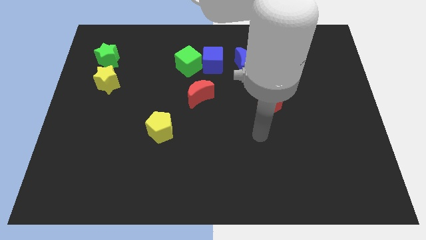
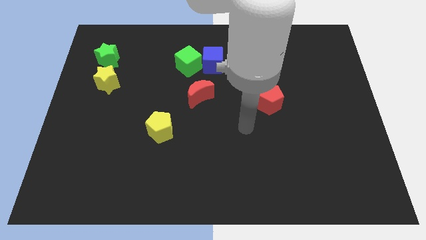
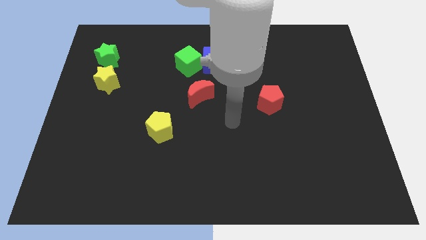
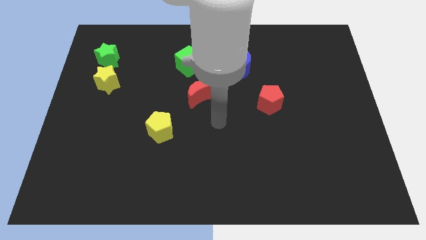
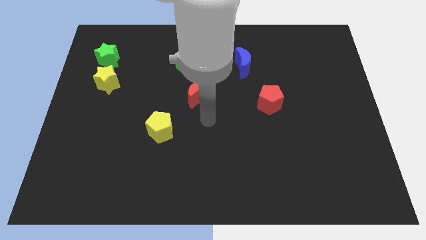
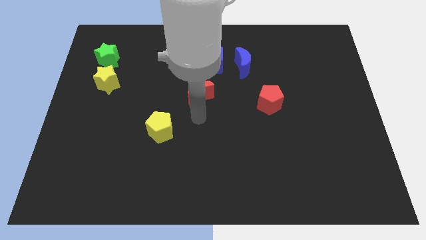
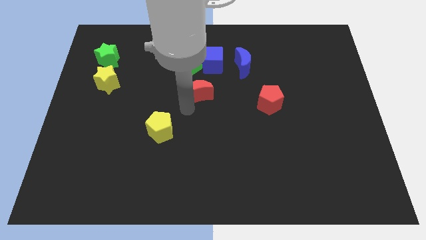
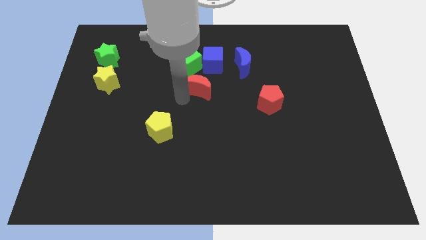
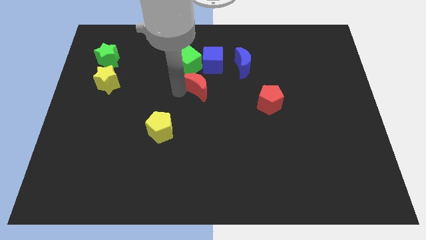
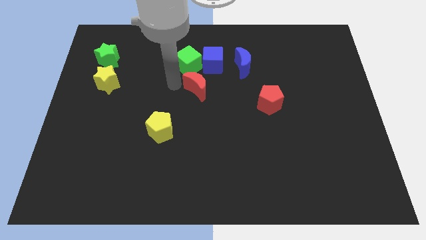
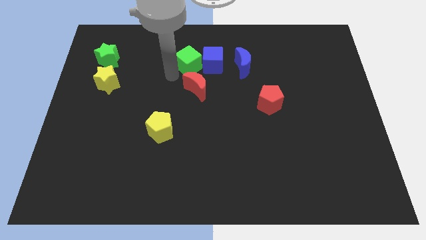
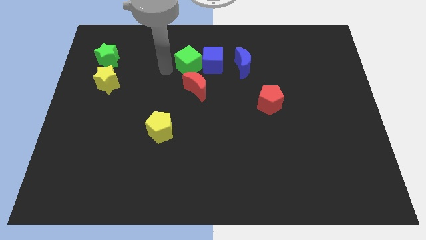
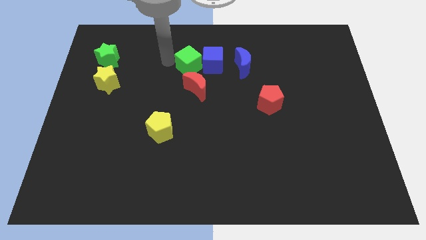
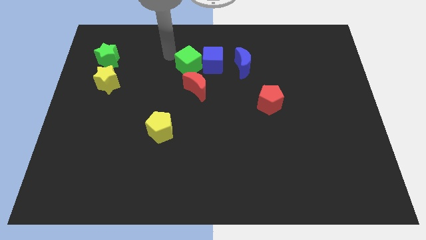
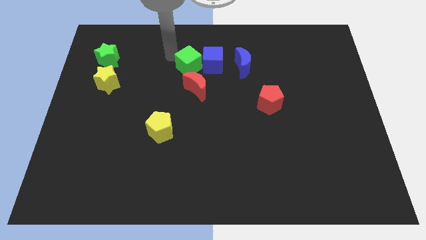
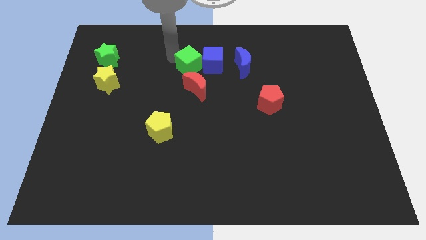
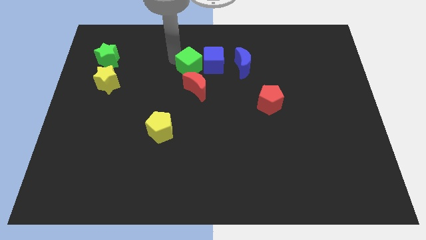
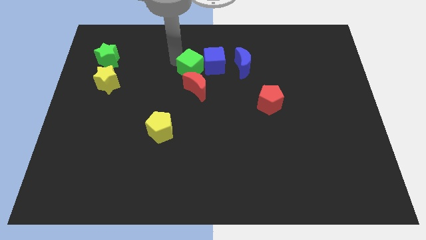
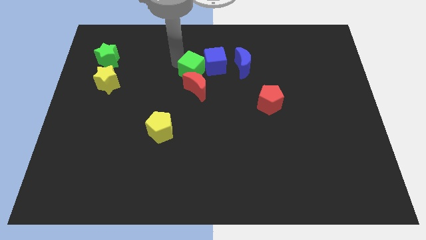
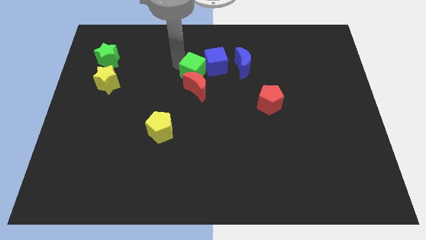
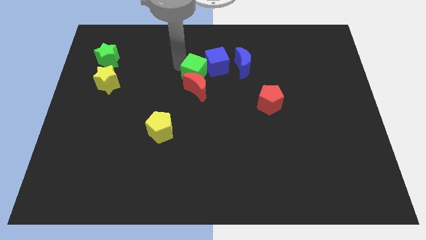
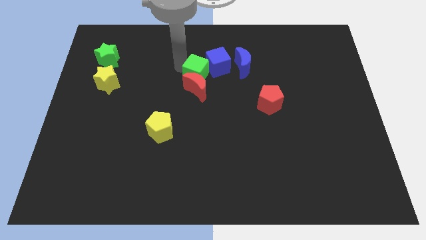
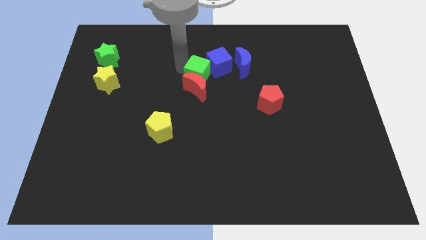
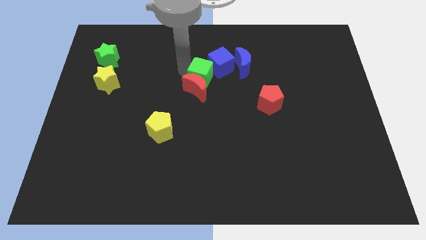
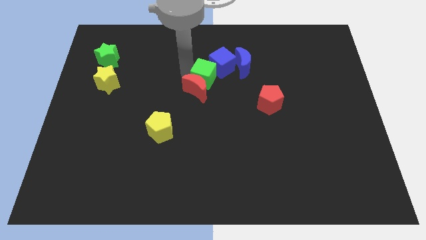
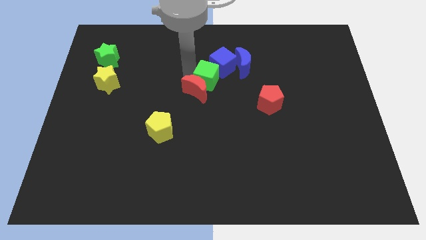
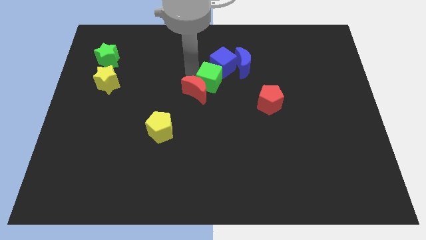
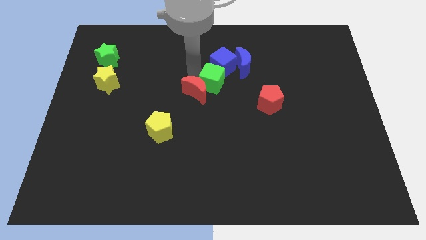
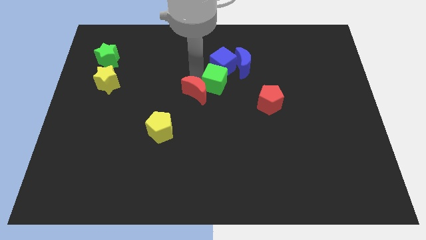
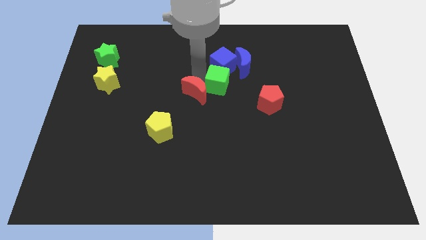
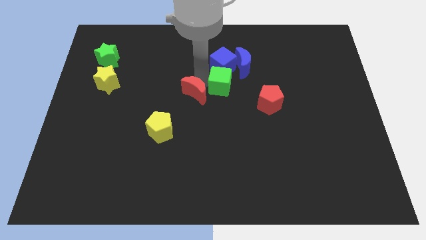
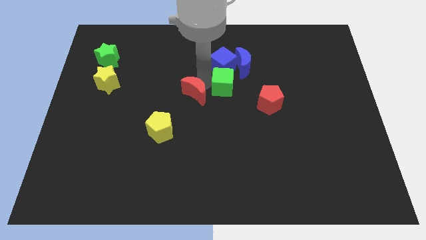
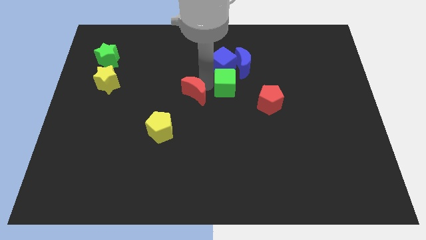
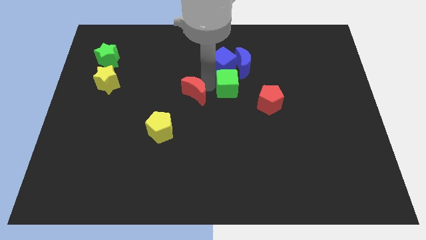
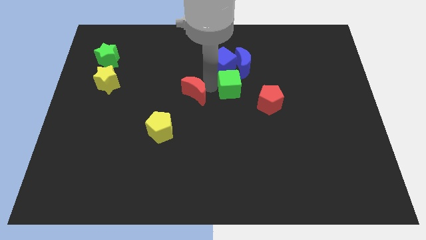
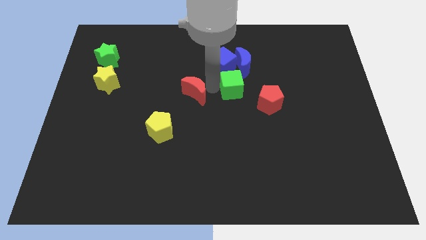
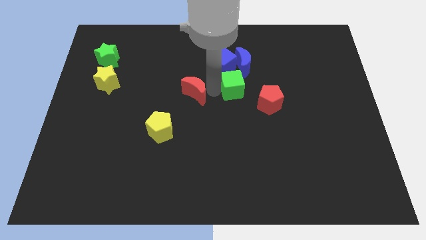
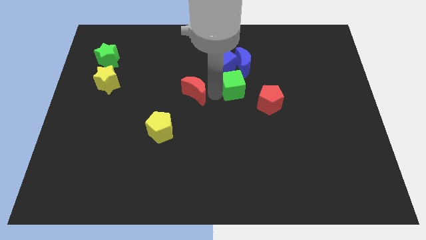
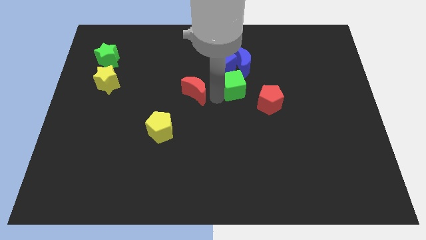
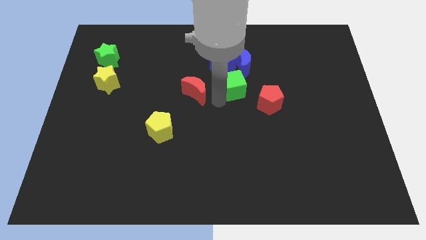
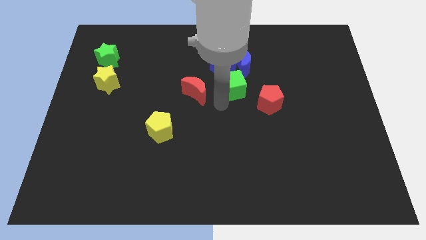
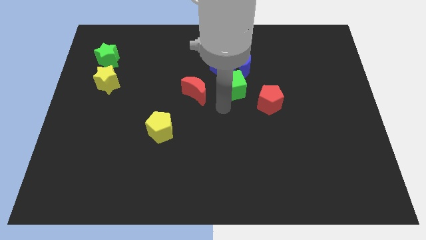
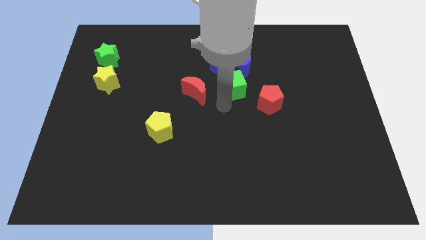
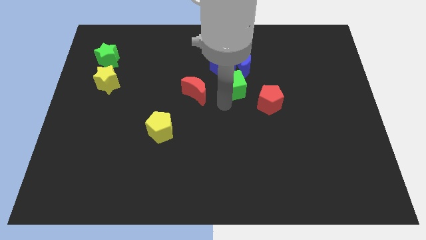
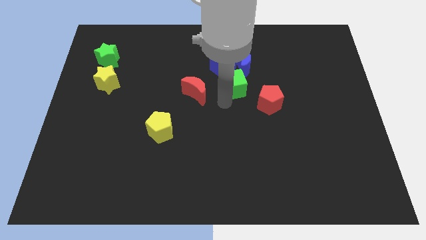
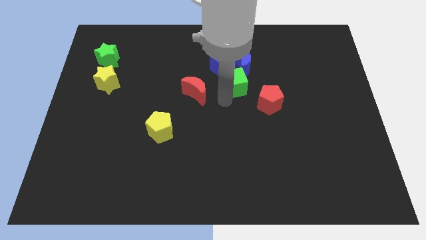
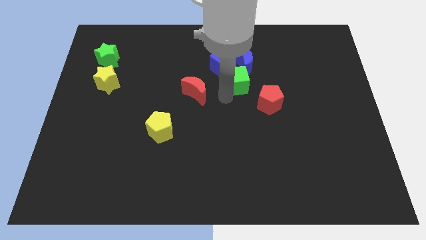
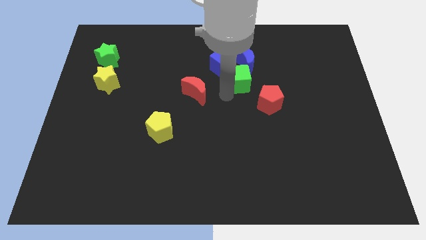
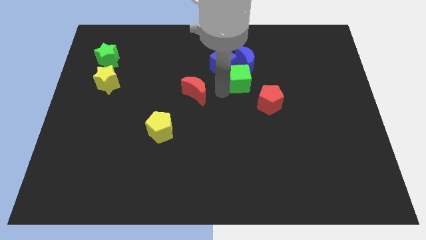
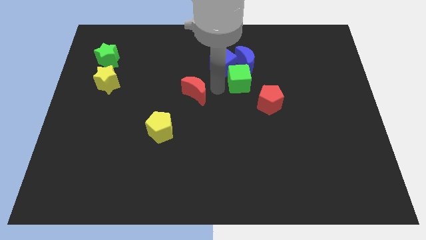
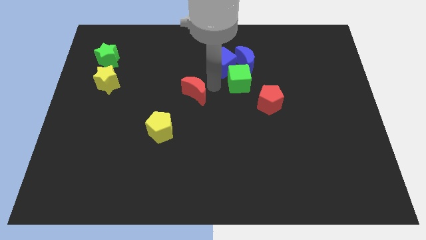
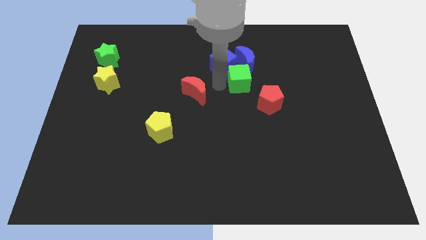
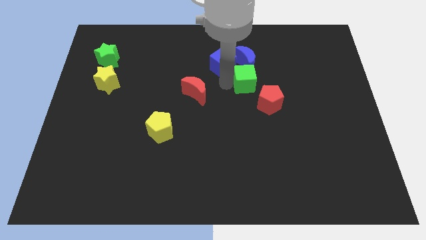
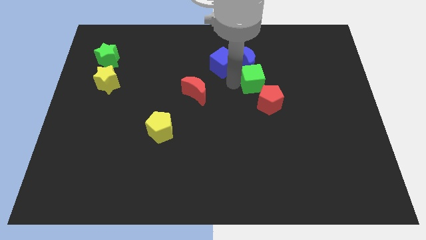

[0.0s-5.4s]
push the green cube diagonally down and to the right of the blue moon

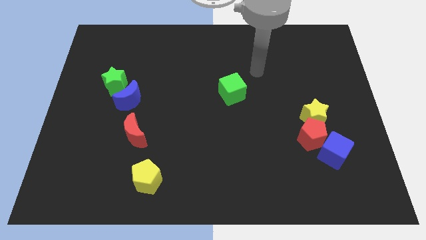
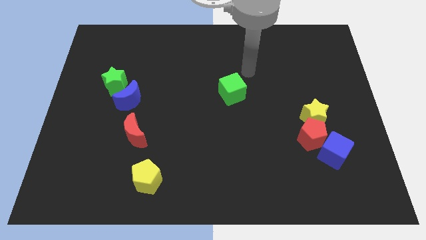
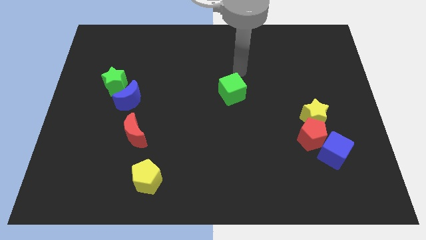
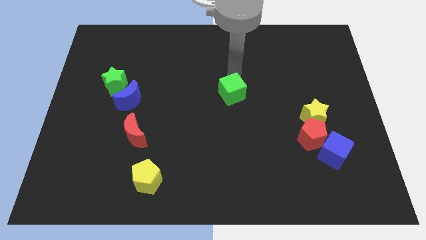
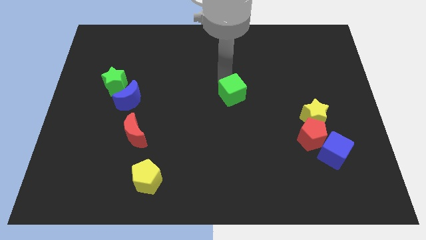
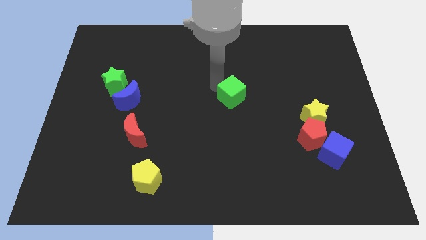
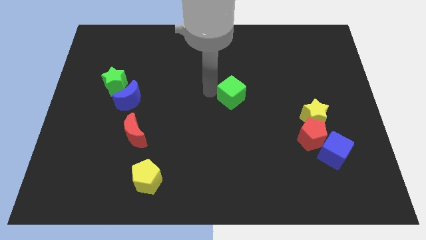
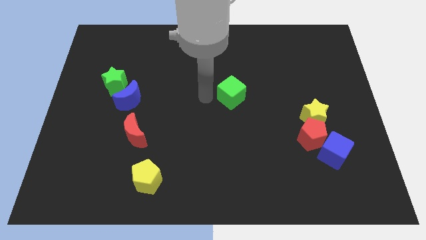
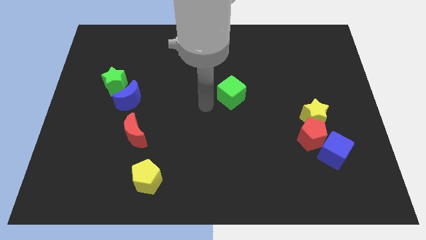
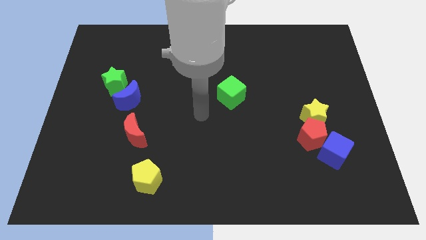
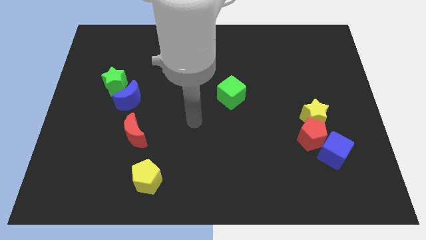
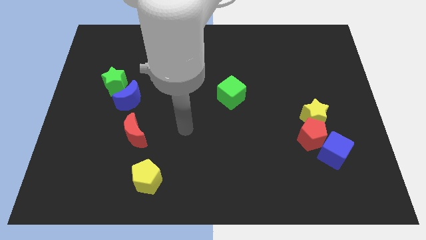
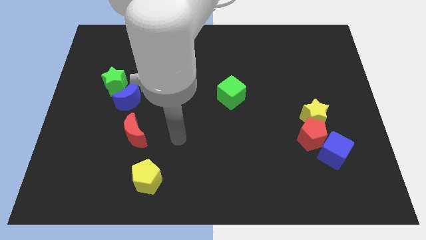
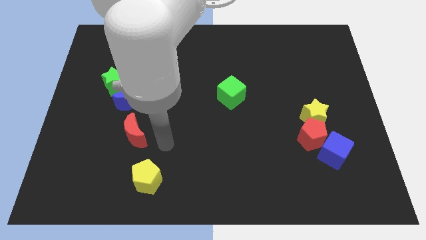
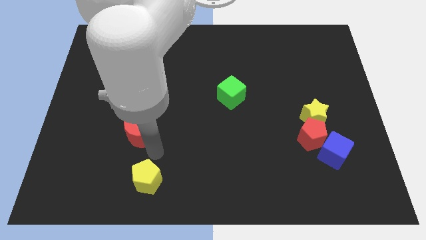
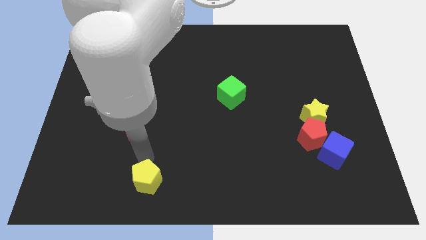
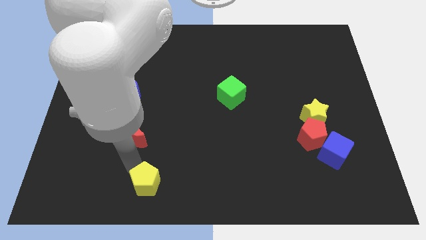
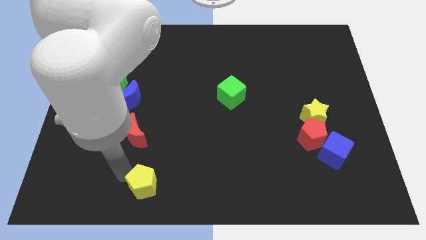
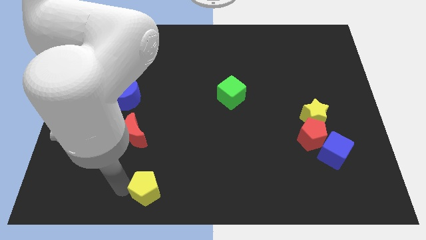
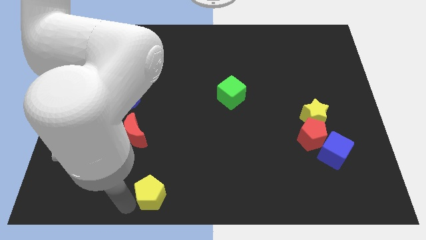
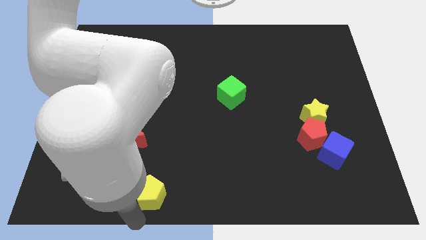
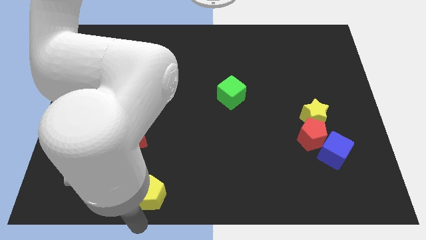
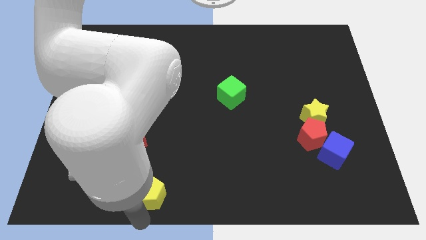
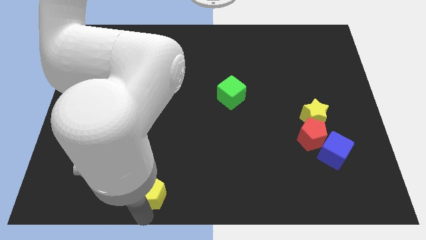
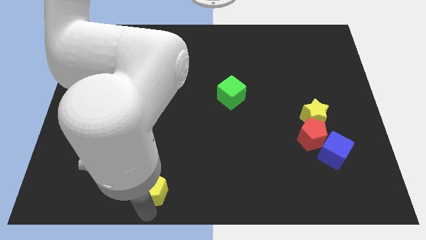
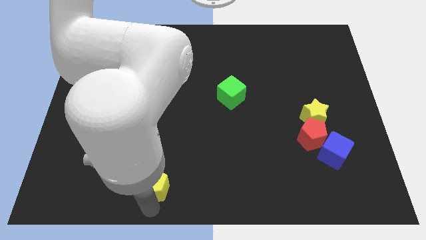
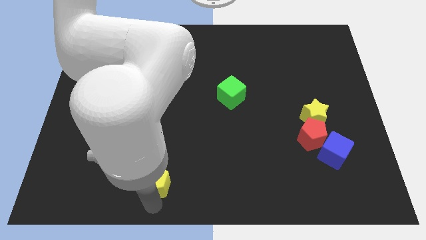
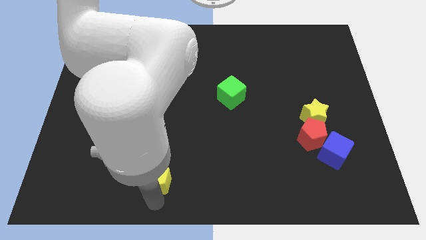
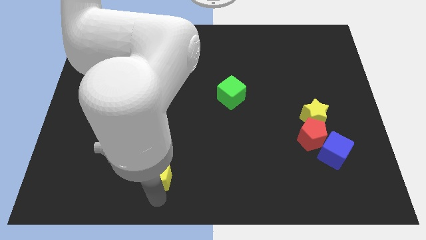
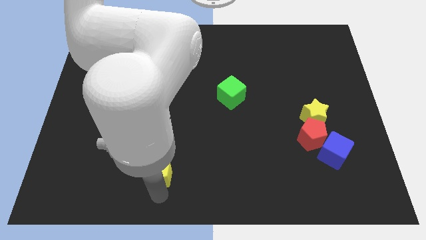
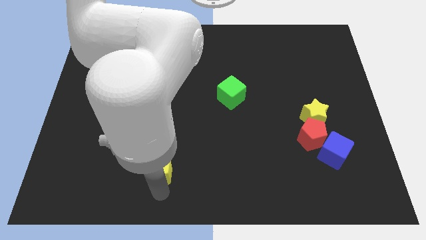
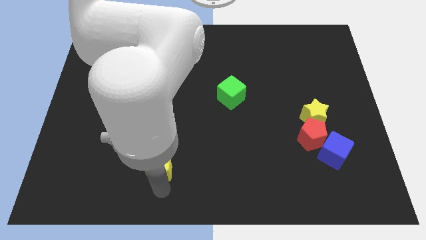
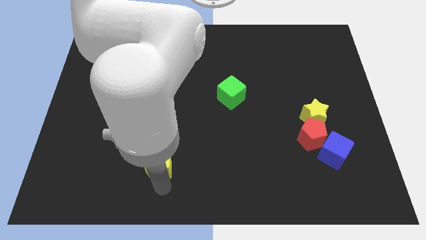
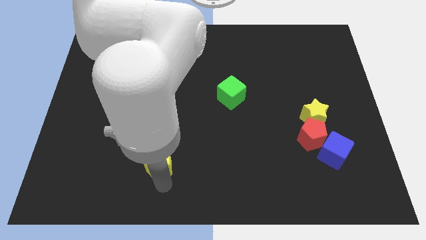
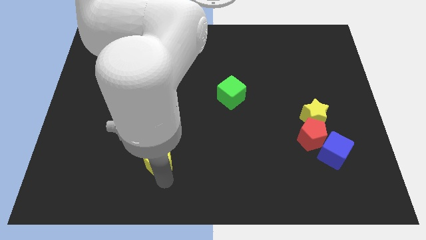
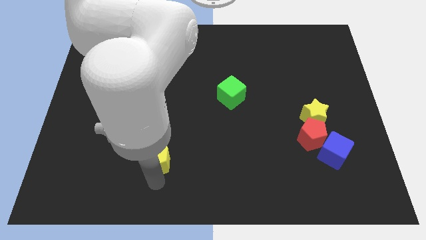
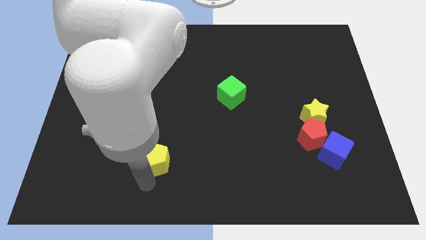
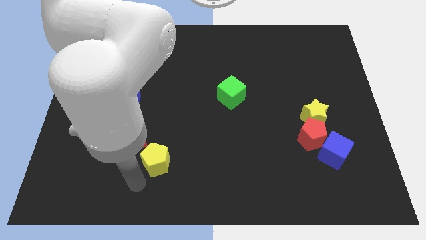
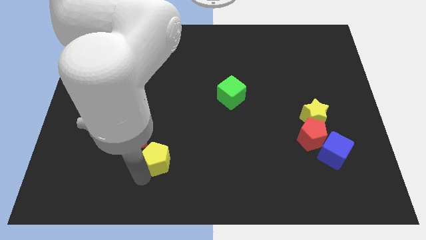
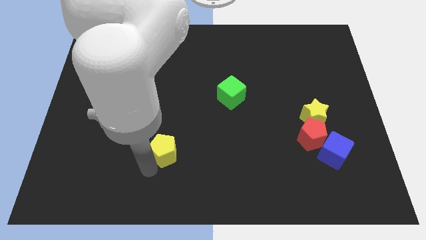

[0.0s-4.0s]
put the yellow pentagon right of the red moon
